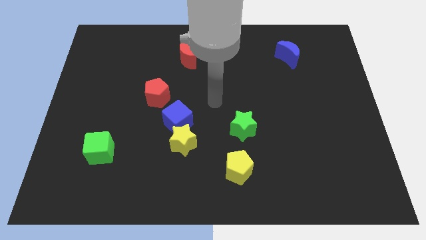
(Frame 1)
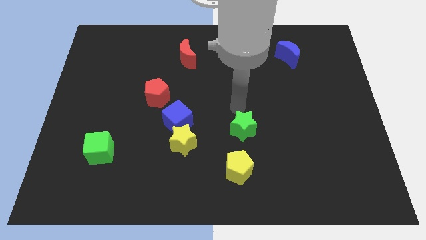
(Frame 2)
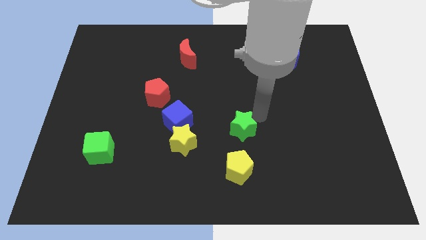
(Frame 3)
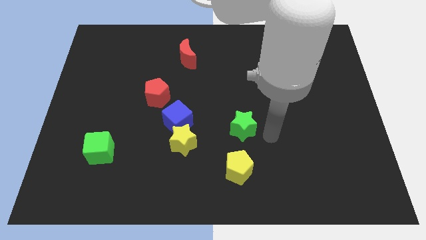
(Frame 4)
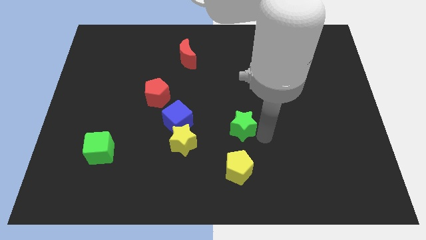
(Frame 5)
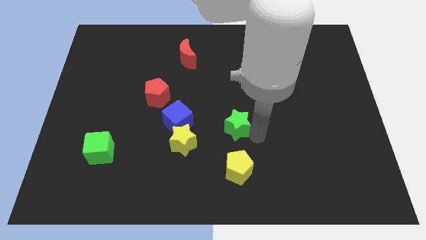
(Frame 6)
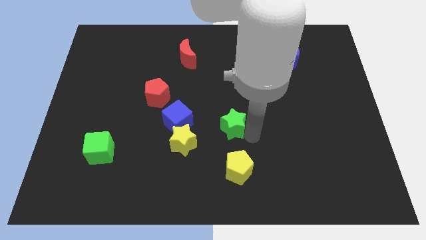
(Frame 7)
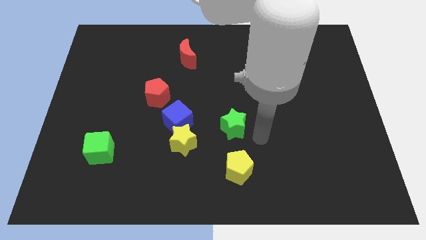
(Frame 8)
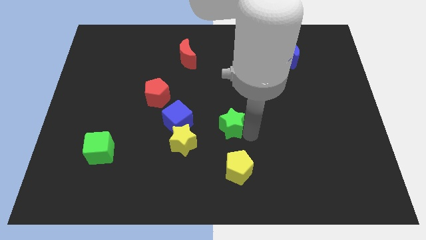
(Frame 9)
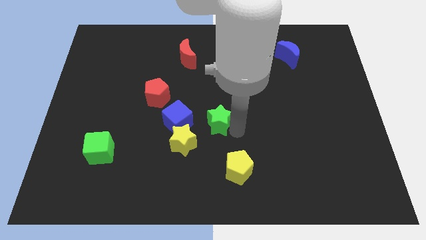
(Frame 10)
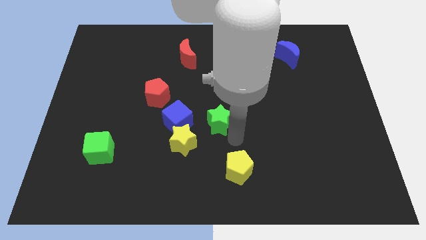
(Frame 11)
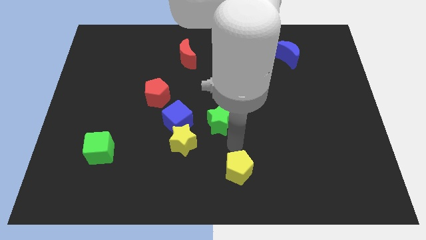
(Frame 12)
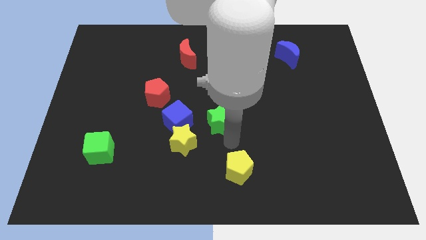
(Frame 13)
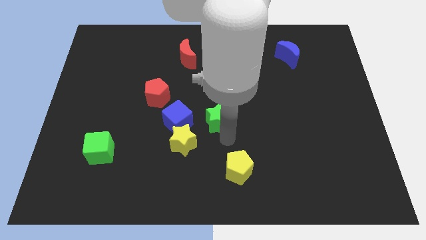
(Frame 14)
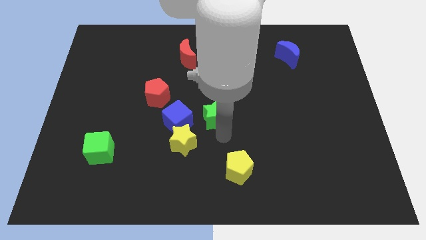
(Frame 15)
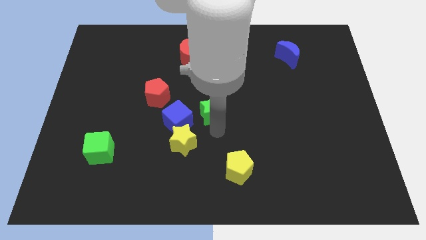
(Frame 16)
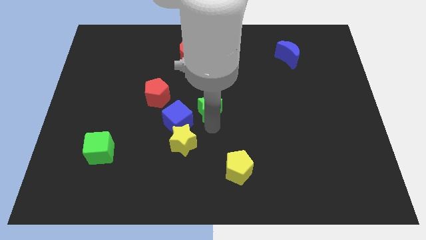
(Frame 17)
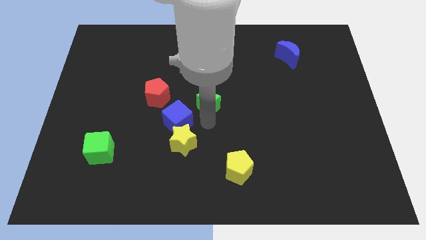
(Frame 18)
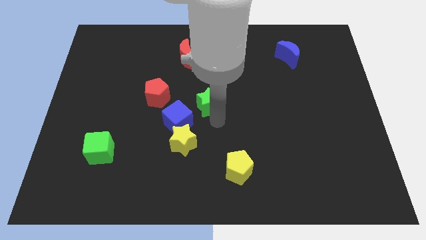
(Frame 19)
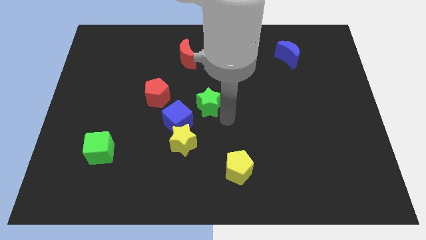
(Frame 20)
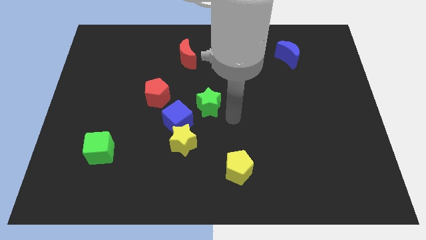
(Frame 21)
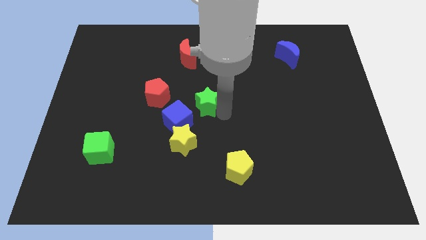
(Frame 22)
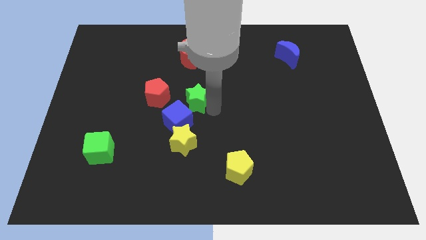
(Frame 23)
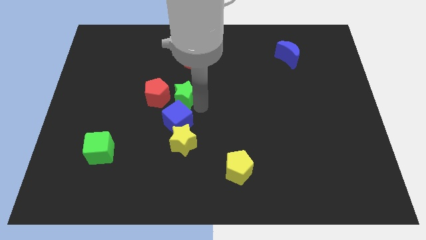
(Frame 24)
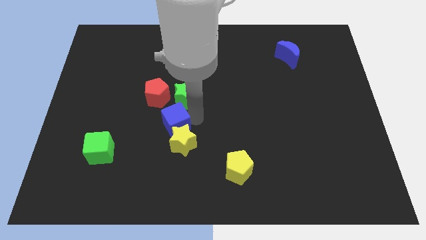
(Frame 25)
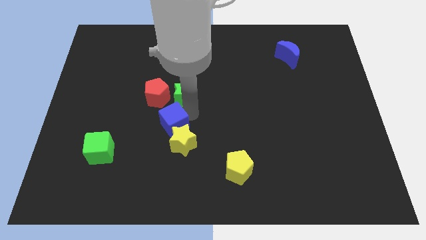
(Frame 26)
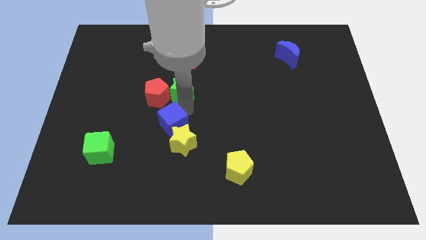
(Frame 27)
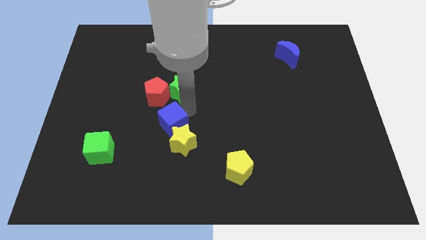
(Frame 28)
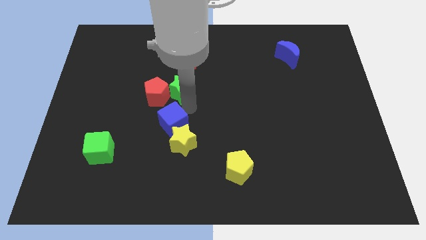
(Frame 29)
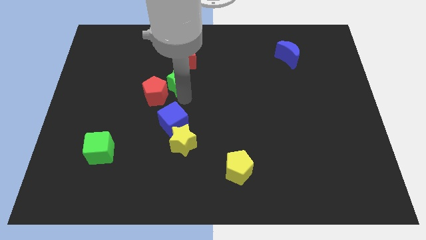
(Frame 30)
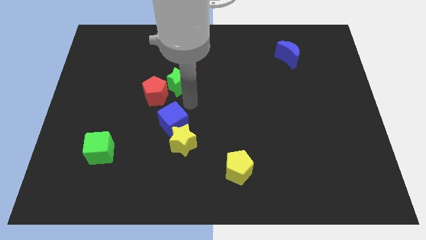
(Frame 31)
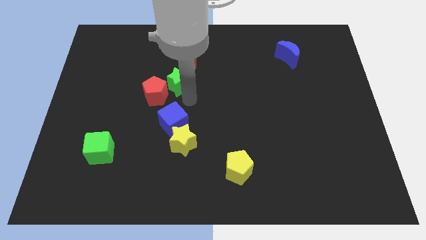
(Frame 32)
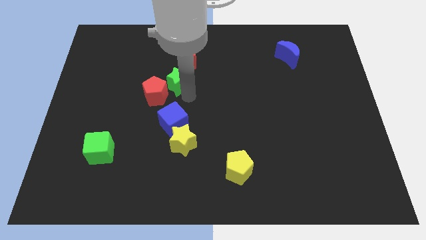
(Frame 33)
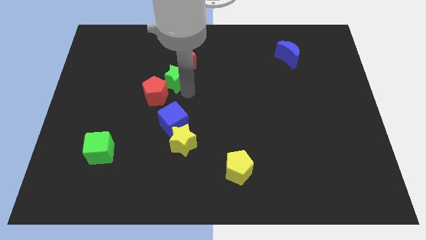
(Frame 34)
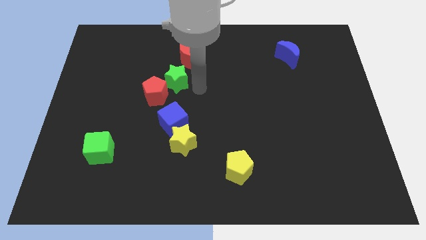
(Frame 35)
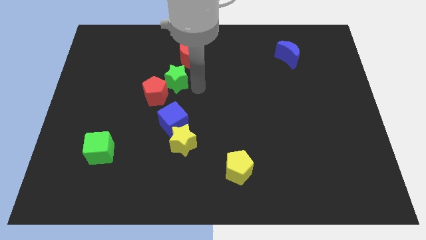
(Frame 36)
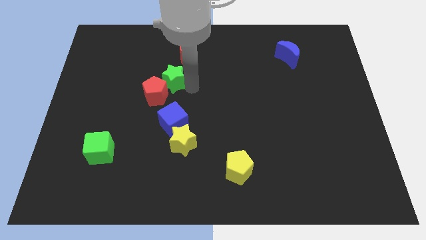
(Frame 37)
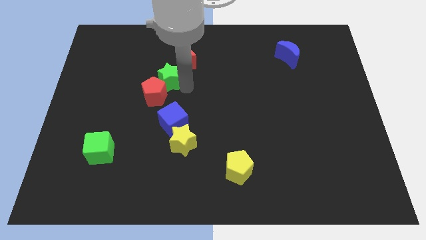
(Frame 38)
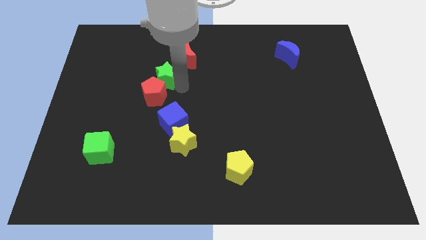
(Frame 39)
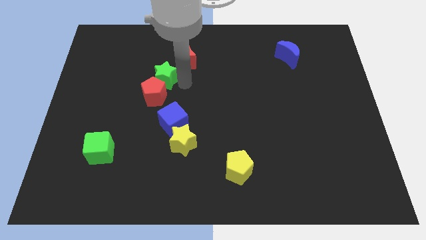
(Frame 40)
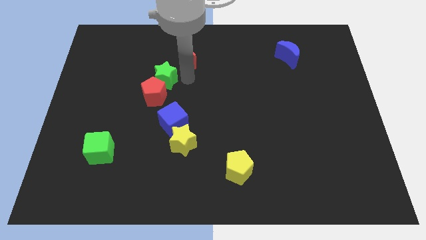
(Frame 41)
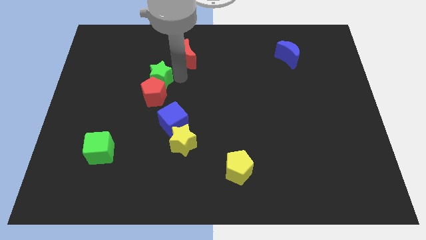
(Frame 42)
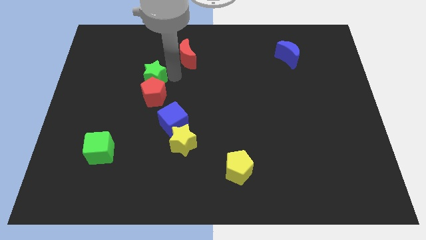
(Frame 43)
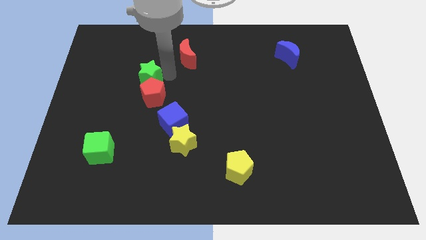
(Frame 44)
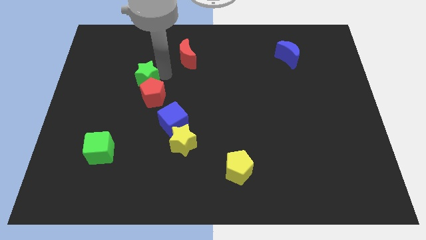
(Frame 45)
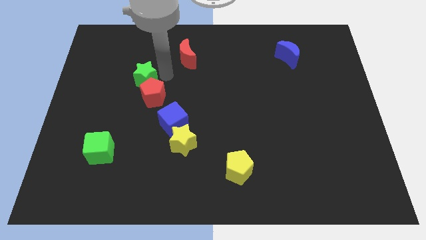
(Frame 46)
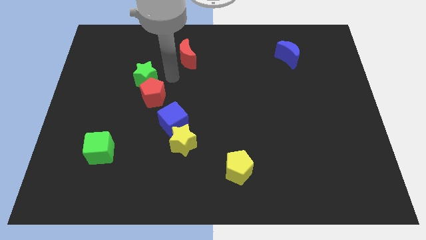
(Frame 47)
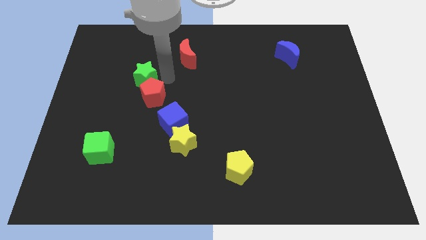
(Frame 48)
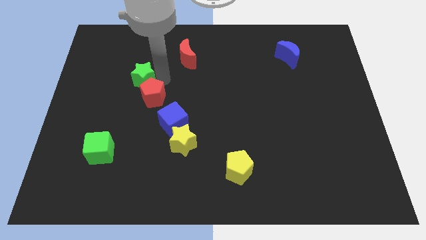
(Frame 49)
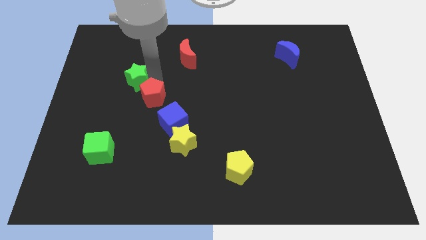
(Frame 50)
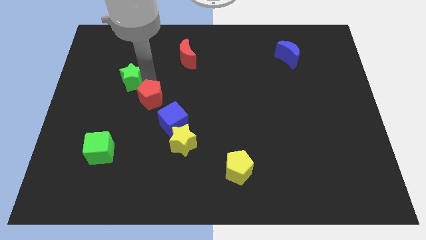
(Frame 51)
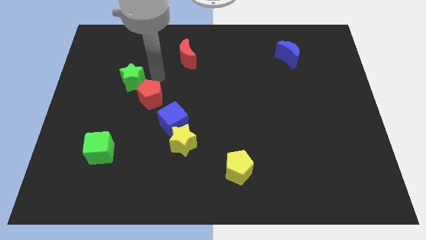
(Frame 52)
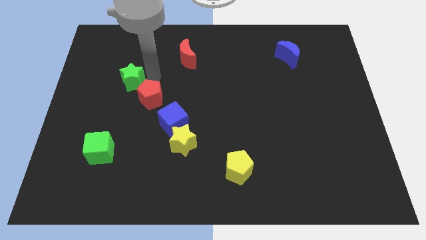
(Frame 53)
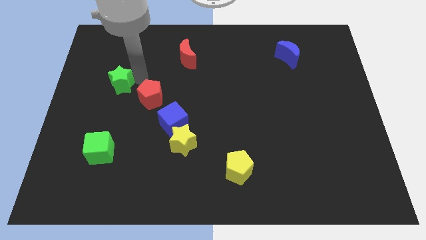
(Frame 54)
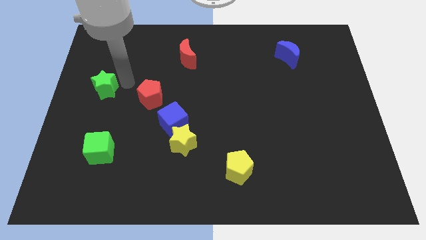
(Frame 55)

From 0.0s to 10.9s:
move the green star to the center left

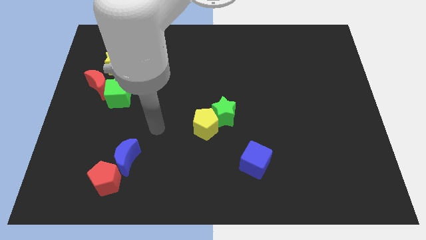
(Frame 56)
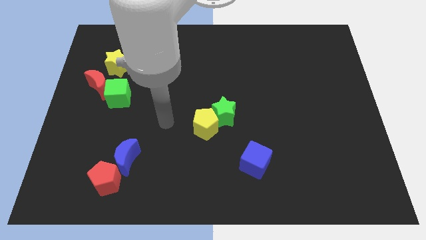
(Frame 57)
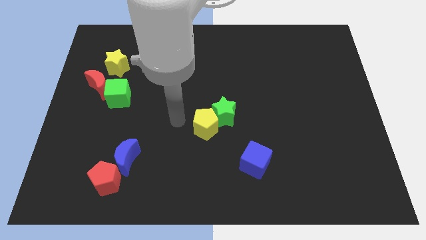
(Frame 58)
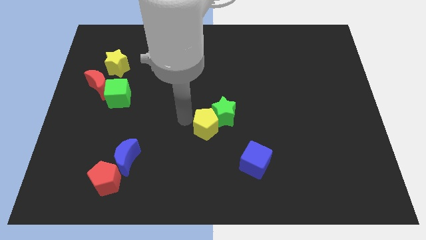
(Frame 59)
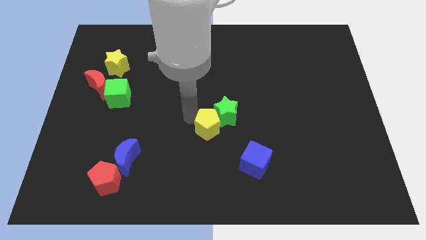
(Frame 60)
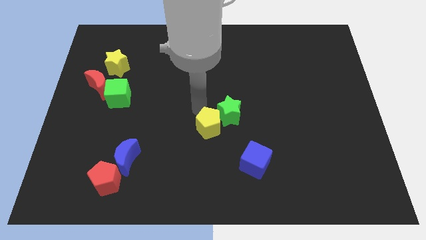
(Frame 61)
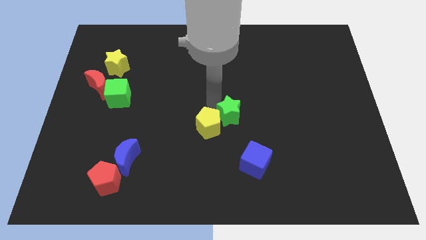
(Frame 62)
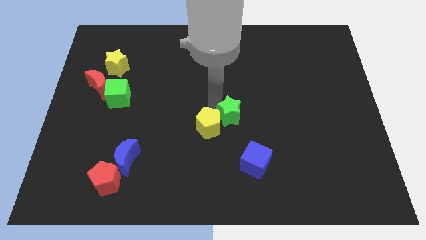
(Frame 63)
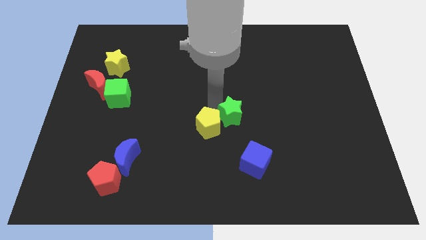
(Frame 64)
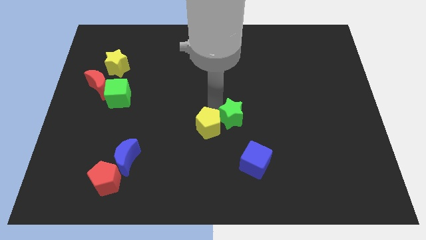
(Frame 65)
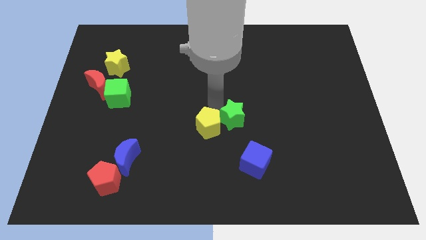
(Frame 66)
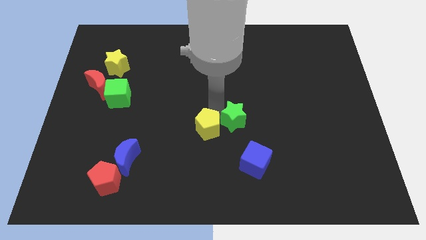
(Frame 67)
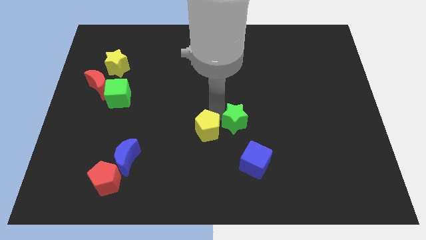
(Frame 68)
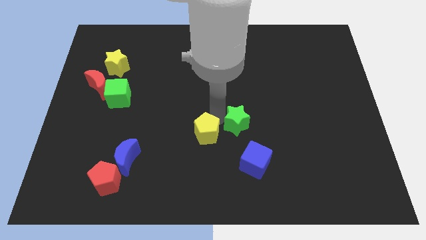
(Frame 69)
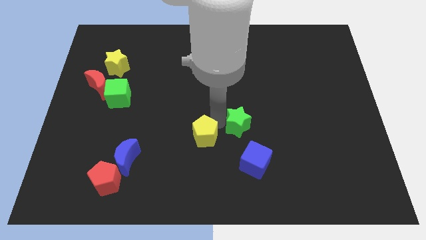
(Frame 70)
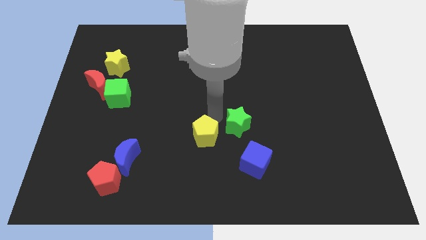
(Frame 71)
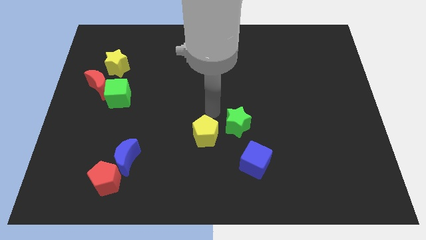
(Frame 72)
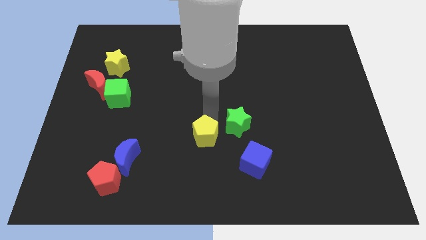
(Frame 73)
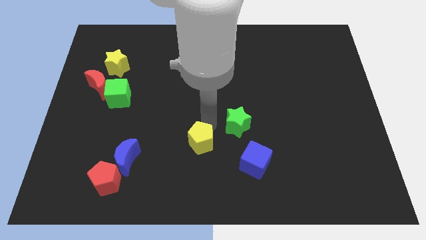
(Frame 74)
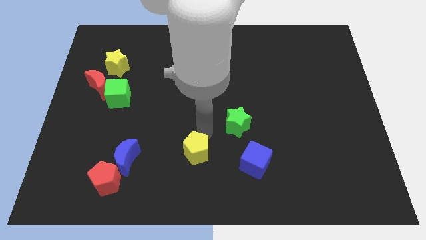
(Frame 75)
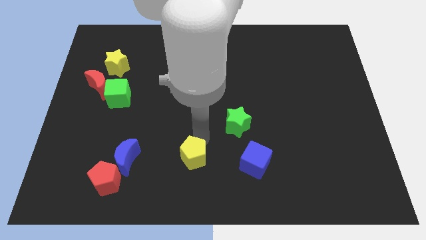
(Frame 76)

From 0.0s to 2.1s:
move the yellow pentagon to the bottom side
